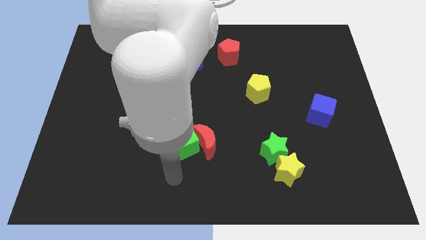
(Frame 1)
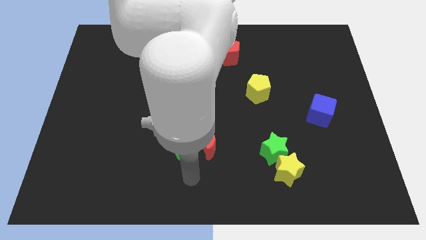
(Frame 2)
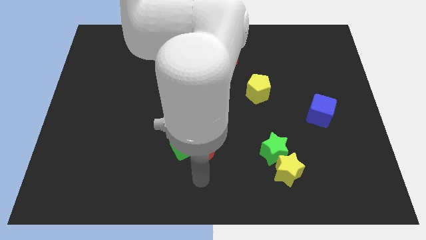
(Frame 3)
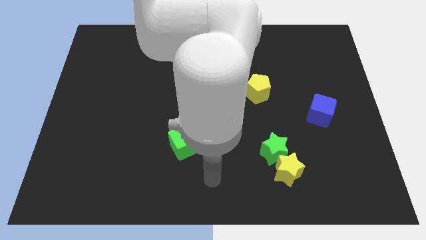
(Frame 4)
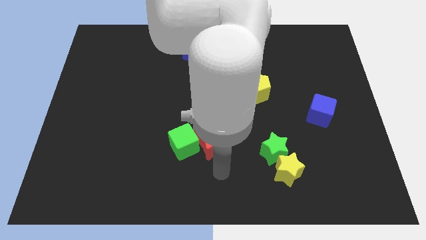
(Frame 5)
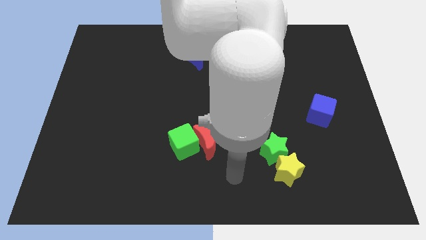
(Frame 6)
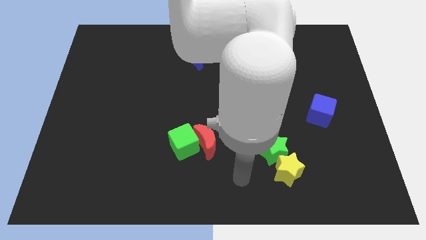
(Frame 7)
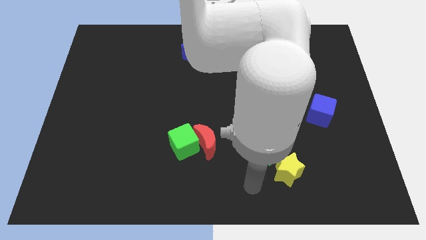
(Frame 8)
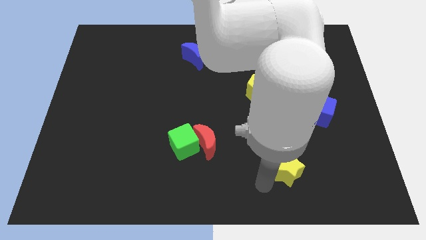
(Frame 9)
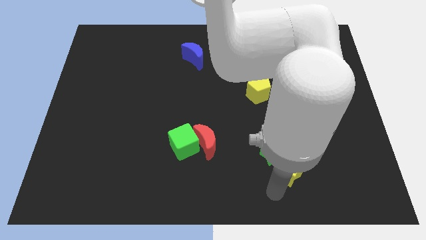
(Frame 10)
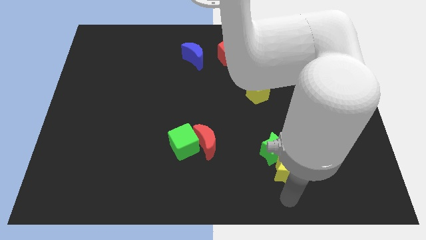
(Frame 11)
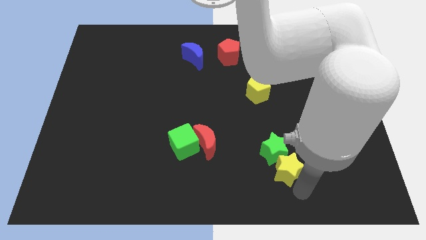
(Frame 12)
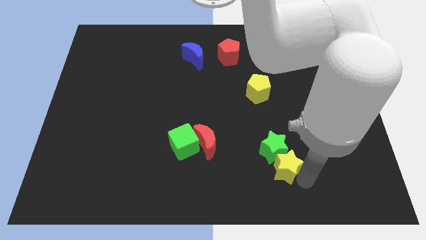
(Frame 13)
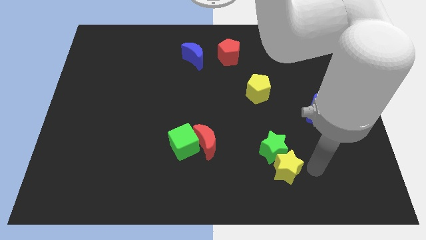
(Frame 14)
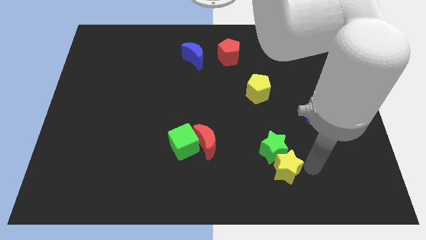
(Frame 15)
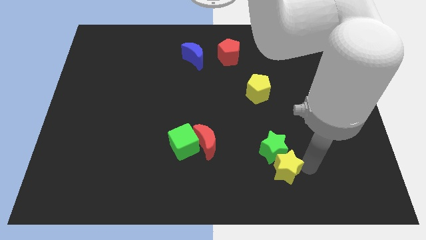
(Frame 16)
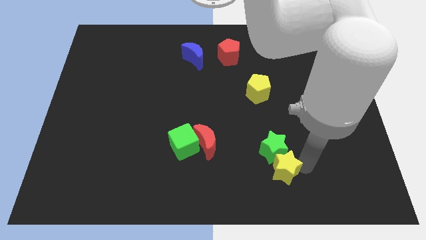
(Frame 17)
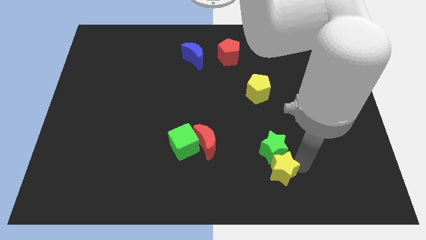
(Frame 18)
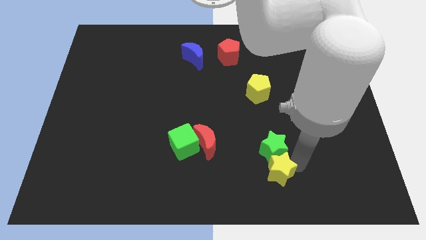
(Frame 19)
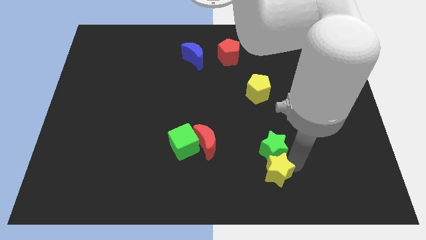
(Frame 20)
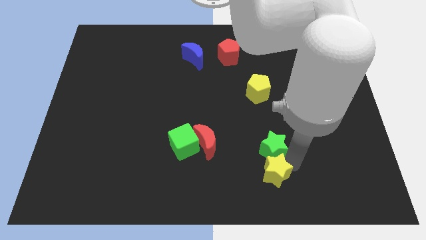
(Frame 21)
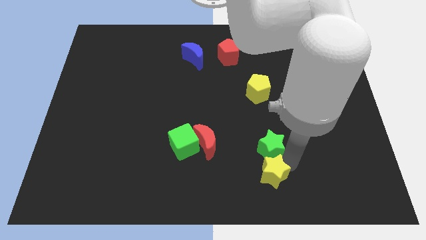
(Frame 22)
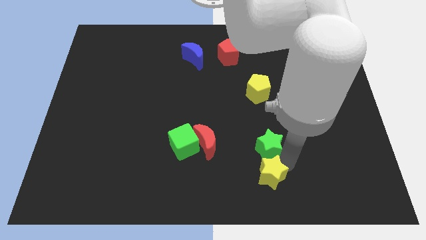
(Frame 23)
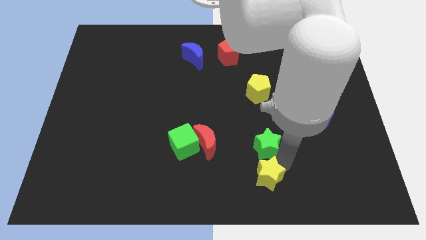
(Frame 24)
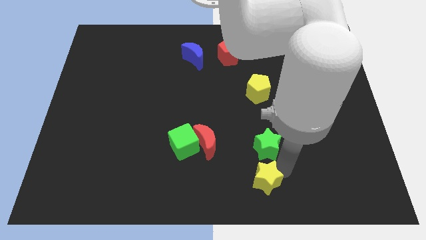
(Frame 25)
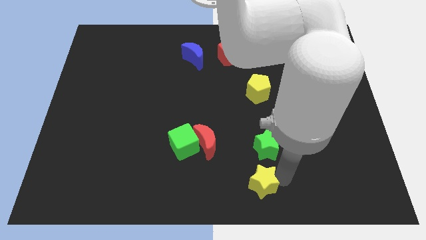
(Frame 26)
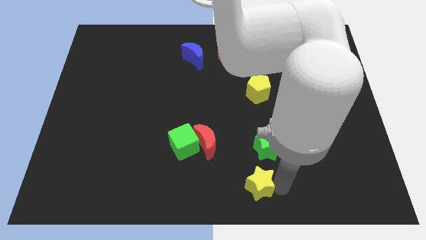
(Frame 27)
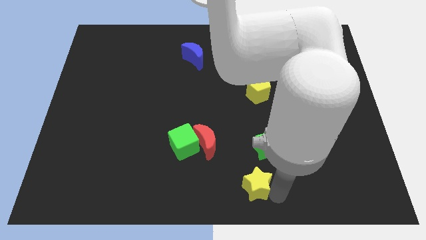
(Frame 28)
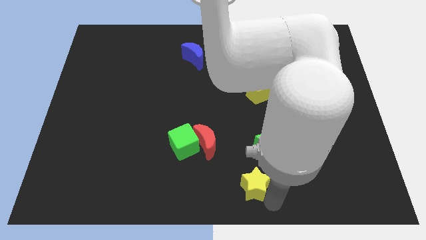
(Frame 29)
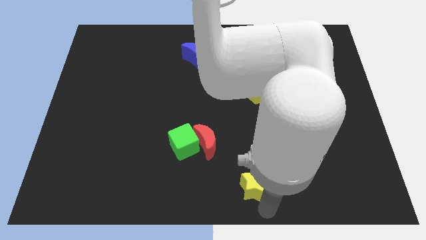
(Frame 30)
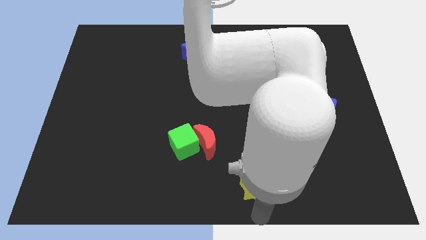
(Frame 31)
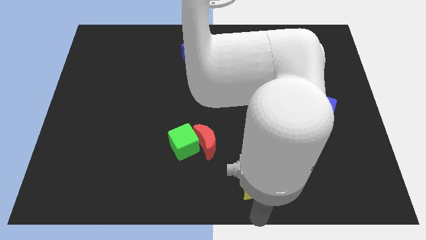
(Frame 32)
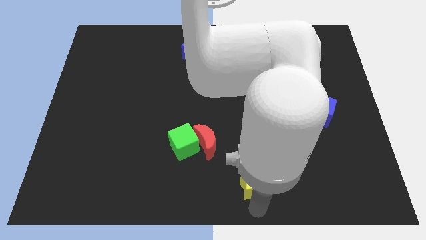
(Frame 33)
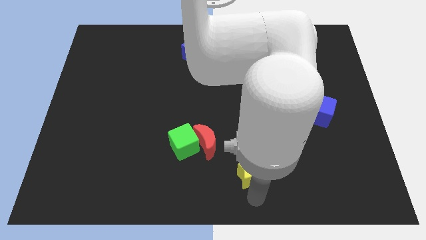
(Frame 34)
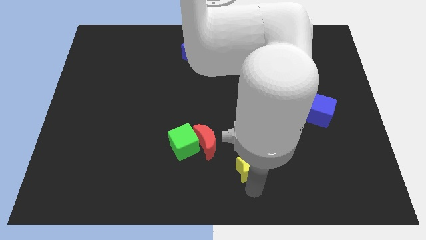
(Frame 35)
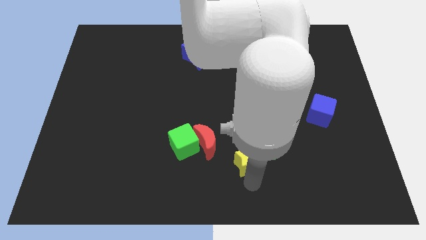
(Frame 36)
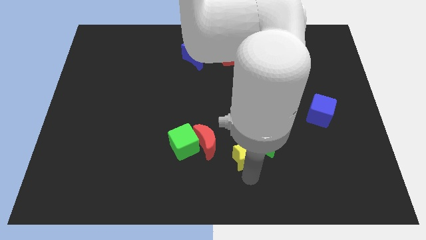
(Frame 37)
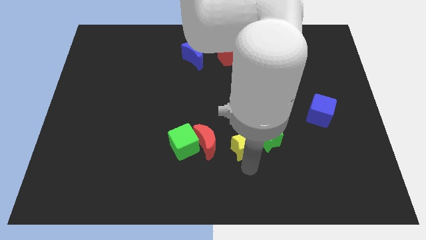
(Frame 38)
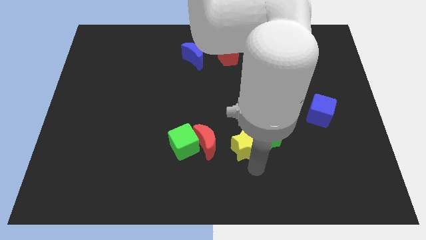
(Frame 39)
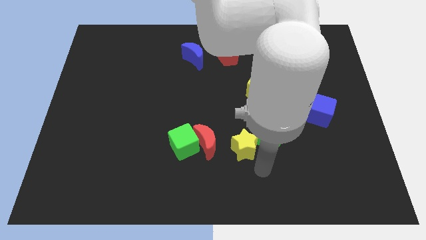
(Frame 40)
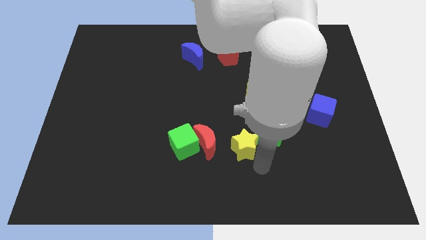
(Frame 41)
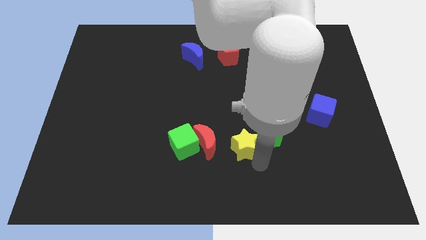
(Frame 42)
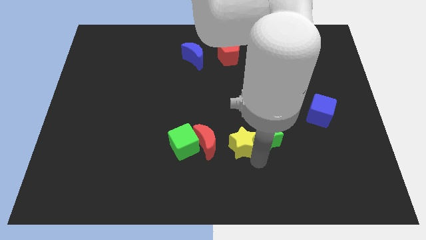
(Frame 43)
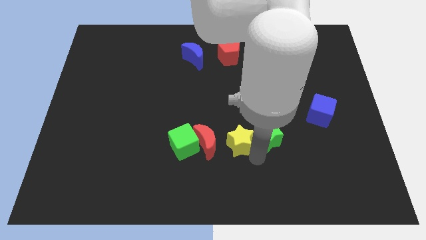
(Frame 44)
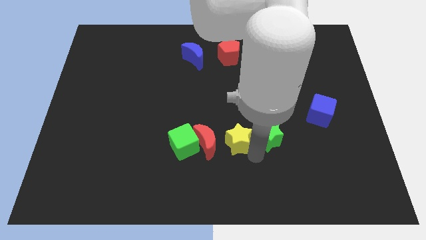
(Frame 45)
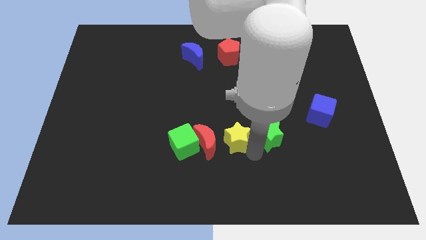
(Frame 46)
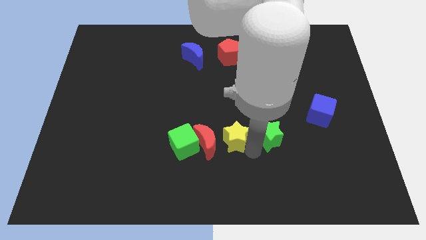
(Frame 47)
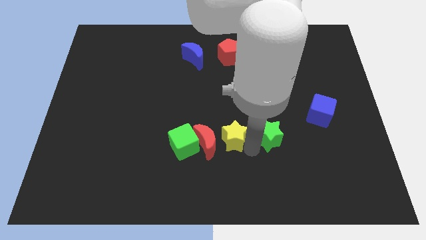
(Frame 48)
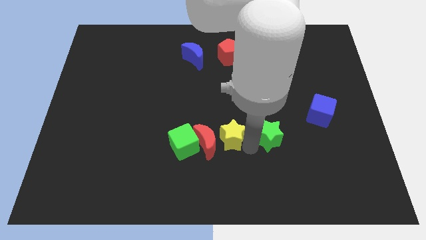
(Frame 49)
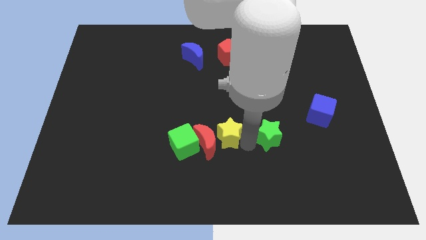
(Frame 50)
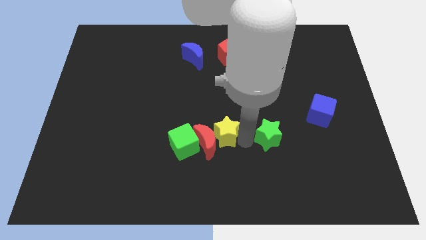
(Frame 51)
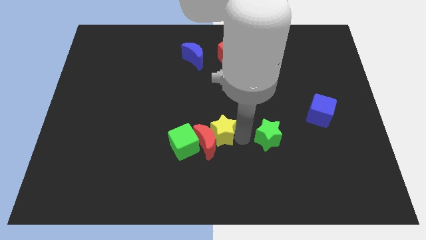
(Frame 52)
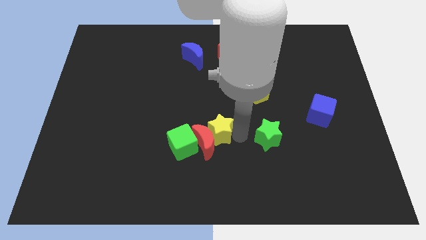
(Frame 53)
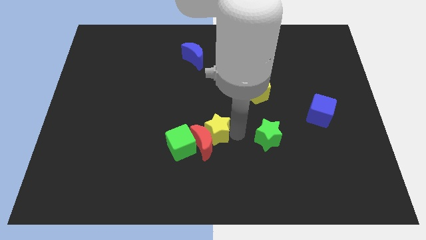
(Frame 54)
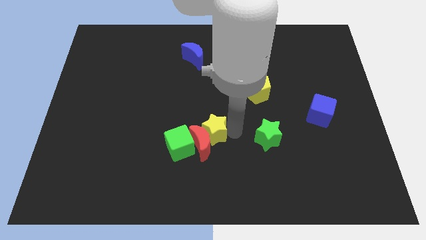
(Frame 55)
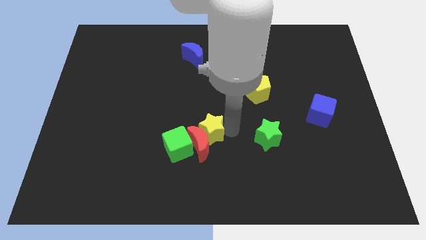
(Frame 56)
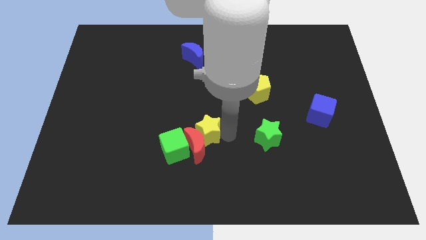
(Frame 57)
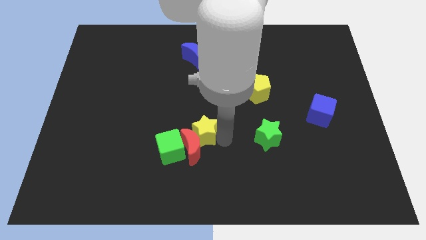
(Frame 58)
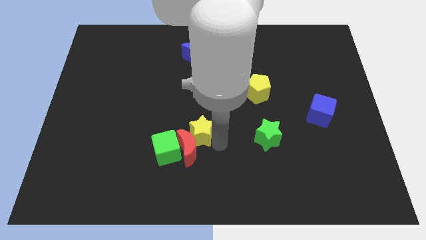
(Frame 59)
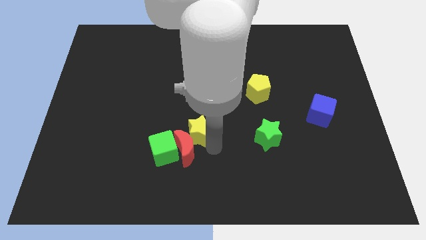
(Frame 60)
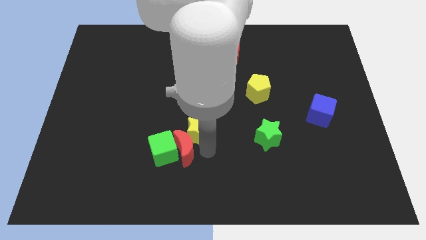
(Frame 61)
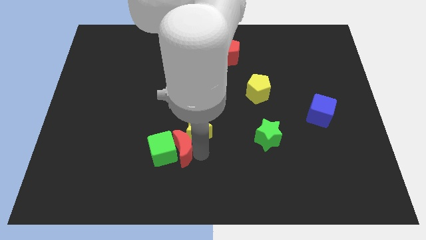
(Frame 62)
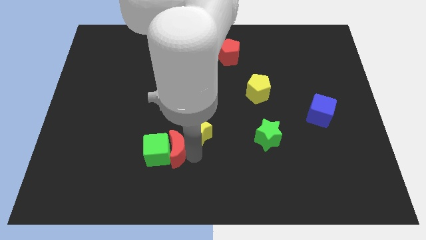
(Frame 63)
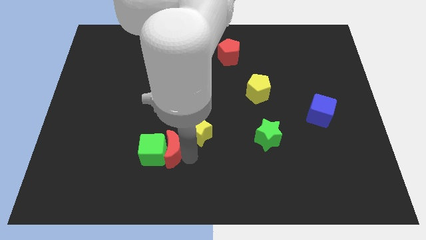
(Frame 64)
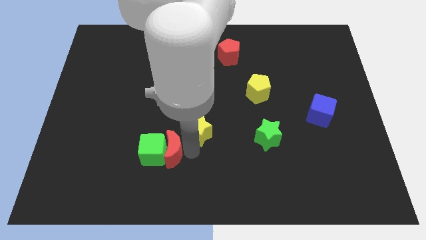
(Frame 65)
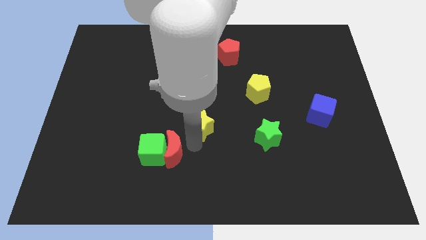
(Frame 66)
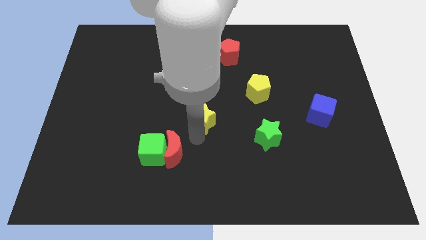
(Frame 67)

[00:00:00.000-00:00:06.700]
slide the yellow star diagonally up and to the left

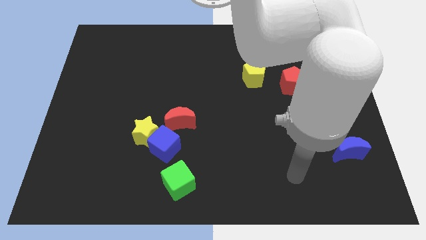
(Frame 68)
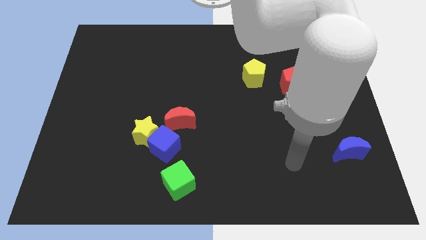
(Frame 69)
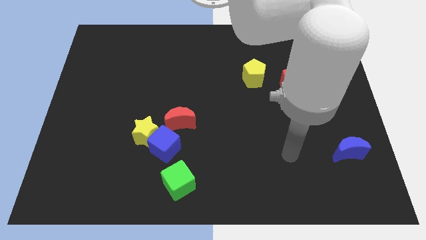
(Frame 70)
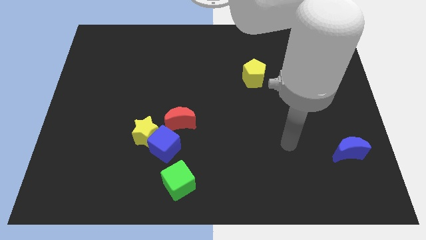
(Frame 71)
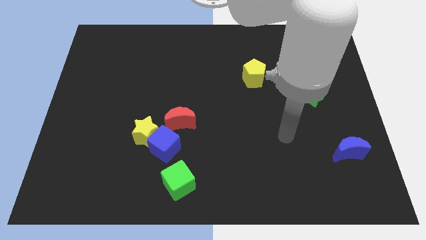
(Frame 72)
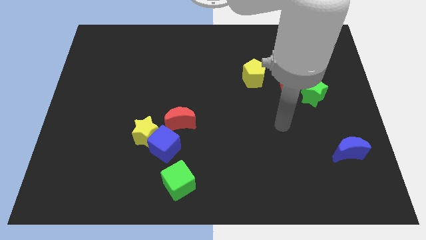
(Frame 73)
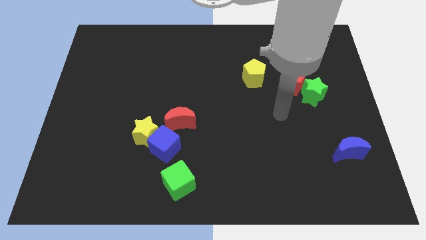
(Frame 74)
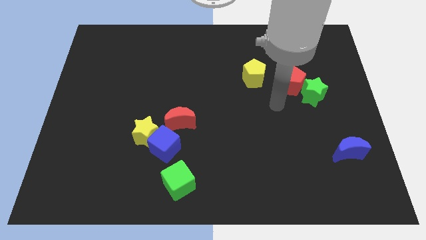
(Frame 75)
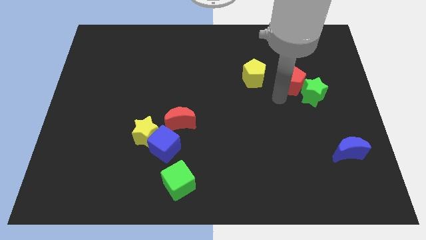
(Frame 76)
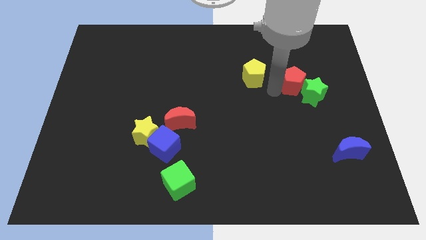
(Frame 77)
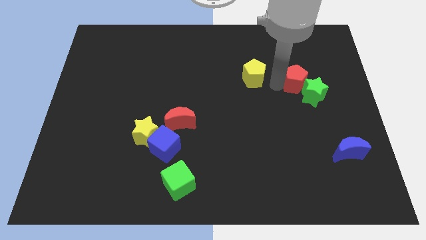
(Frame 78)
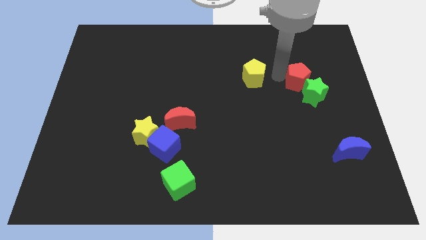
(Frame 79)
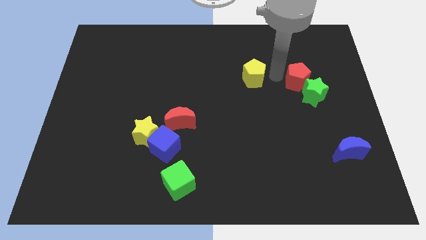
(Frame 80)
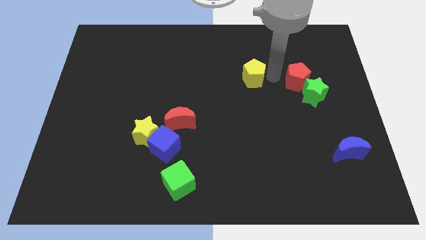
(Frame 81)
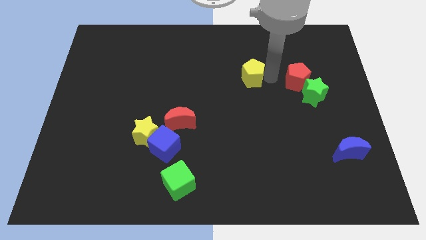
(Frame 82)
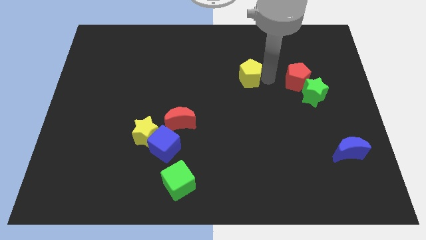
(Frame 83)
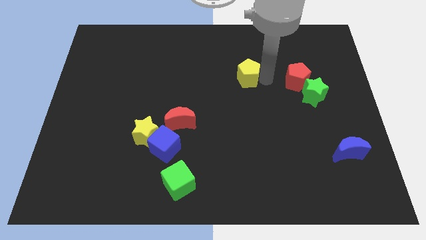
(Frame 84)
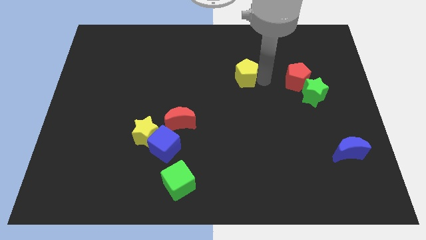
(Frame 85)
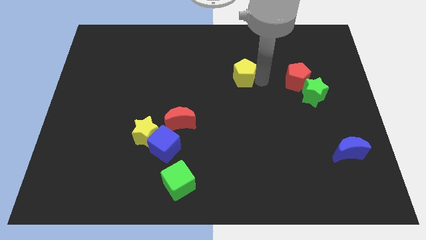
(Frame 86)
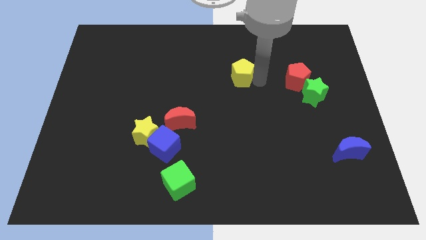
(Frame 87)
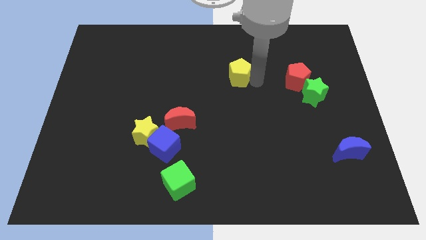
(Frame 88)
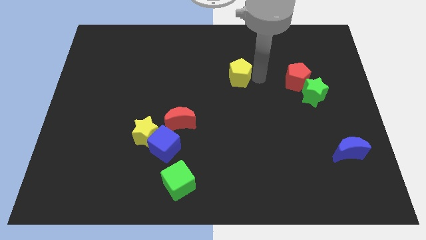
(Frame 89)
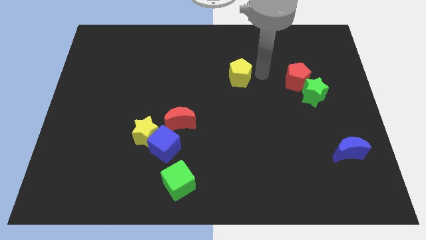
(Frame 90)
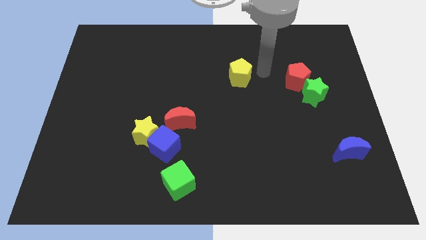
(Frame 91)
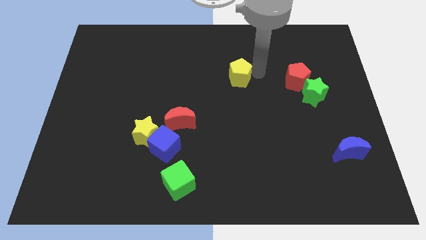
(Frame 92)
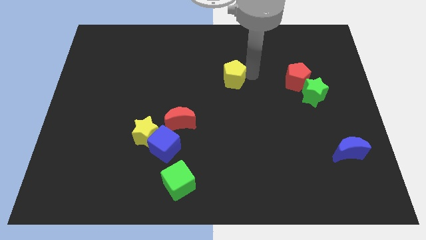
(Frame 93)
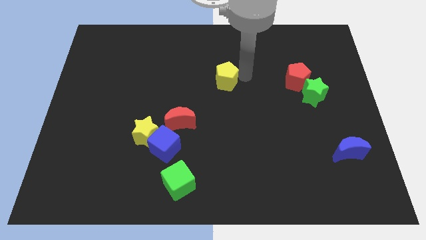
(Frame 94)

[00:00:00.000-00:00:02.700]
push the yellow pentagon somewhat left
